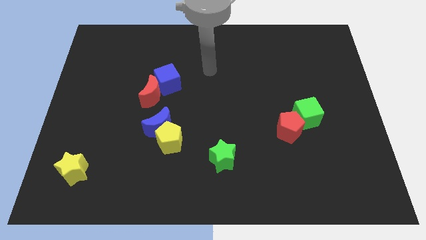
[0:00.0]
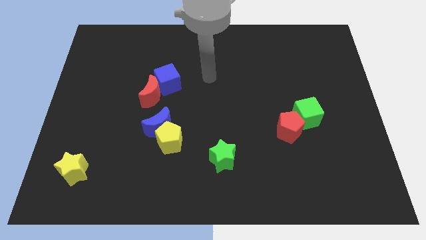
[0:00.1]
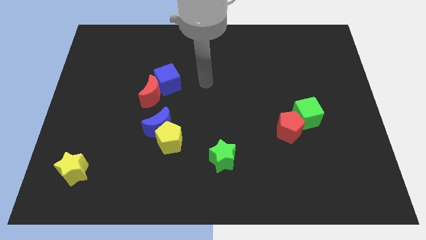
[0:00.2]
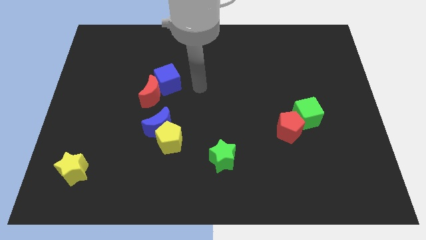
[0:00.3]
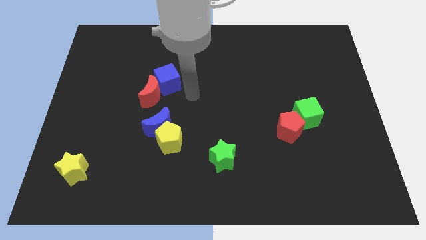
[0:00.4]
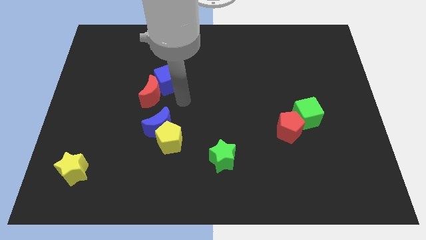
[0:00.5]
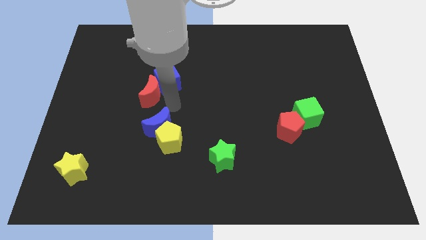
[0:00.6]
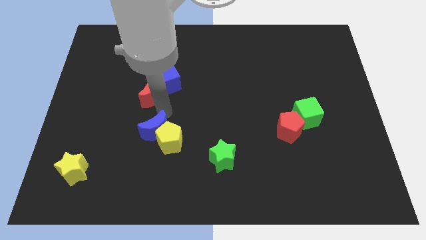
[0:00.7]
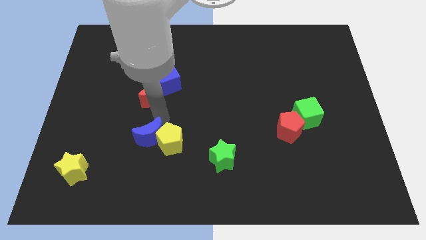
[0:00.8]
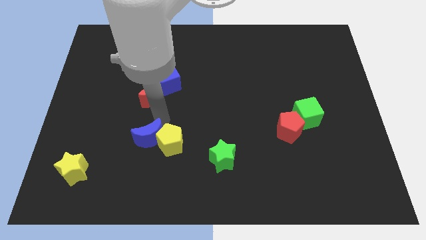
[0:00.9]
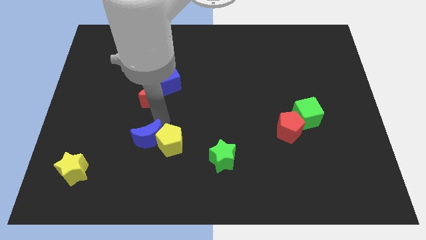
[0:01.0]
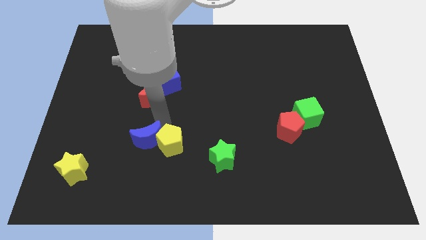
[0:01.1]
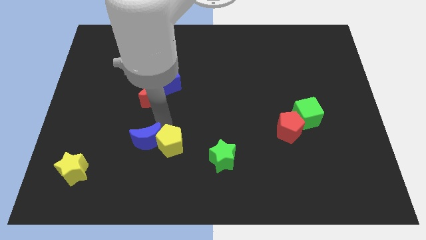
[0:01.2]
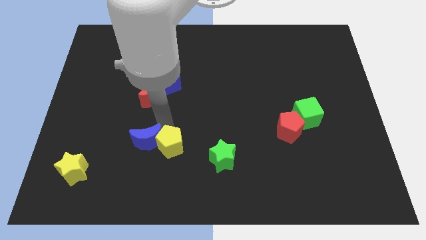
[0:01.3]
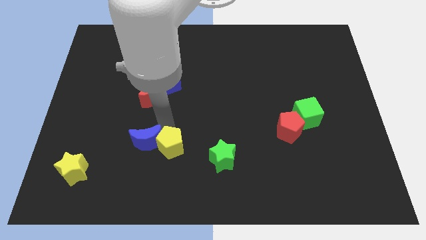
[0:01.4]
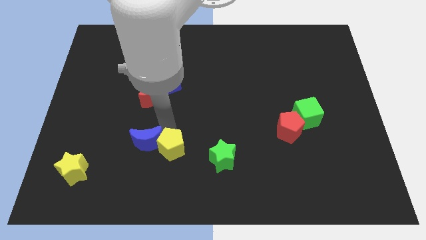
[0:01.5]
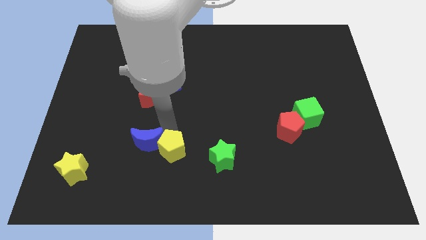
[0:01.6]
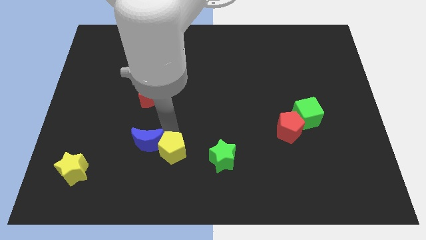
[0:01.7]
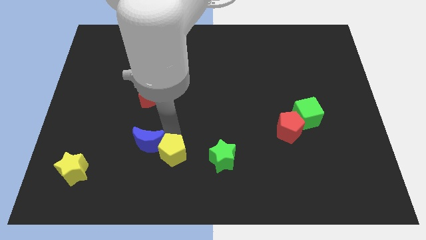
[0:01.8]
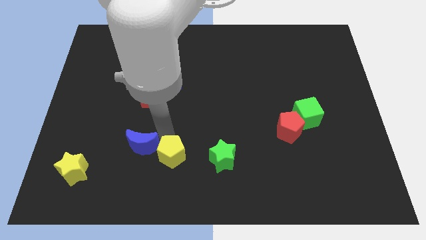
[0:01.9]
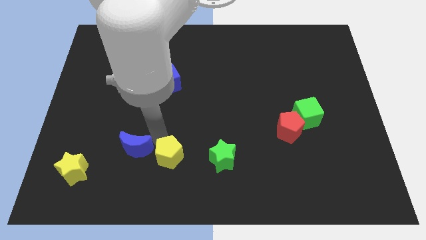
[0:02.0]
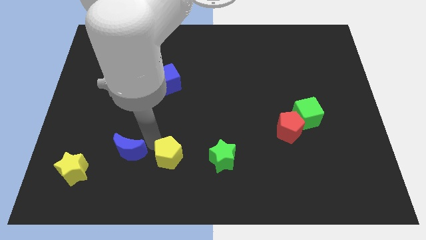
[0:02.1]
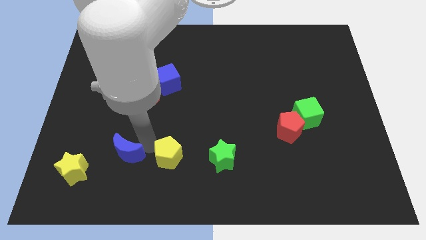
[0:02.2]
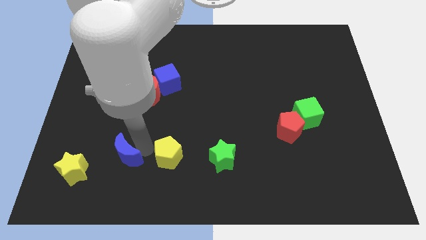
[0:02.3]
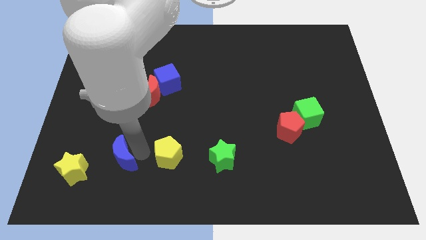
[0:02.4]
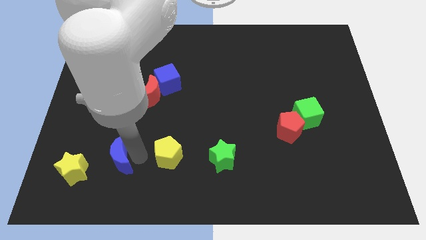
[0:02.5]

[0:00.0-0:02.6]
pull the yellow pentagon apart from the blue moon

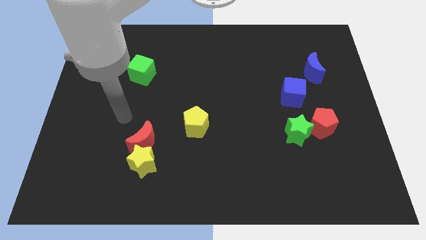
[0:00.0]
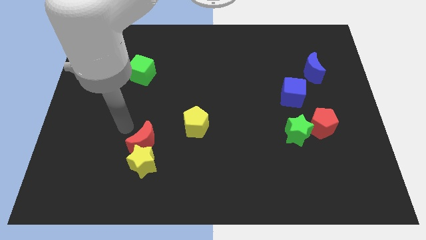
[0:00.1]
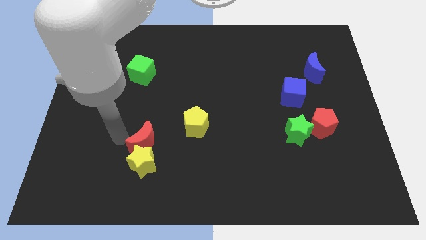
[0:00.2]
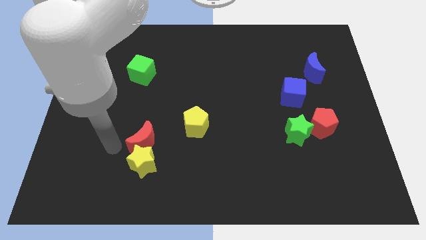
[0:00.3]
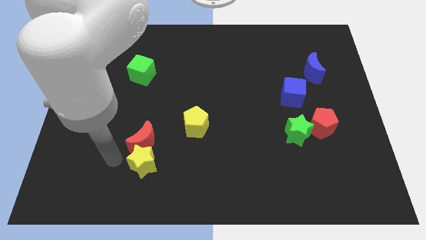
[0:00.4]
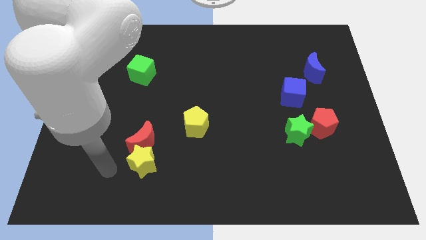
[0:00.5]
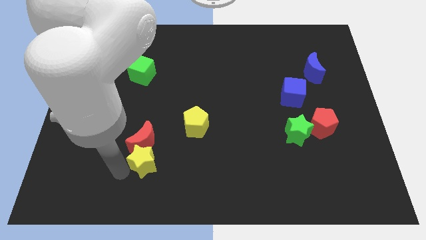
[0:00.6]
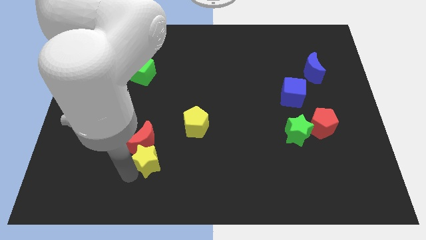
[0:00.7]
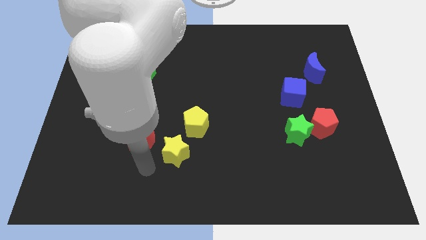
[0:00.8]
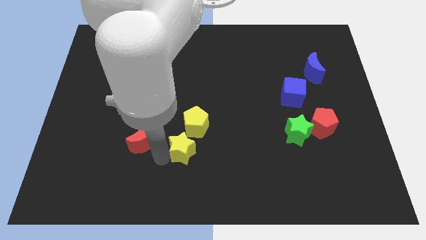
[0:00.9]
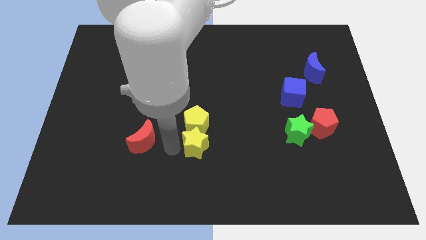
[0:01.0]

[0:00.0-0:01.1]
separate the red moon from the yellow star

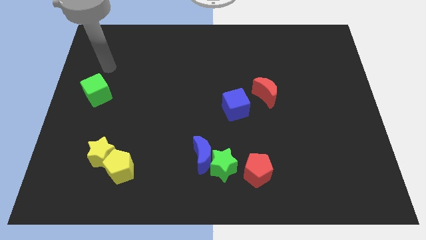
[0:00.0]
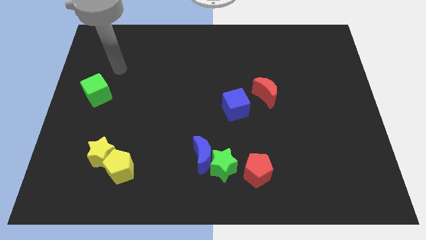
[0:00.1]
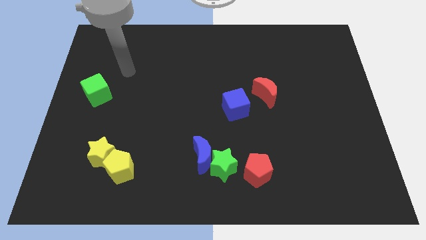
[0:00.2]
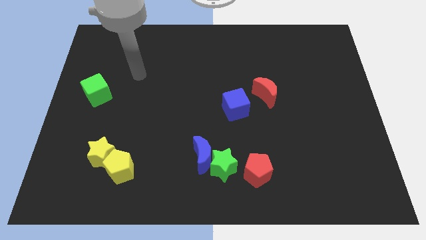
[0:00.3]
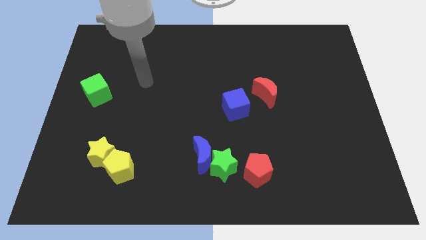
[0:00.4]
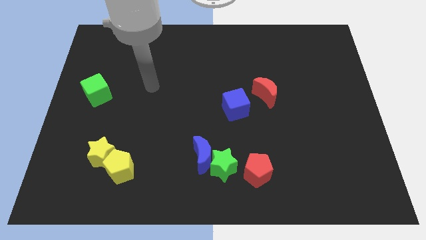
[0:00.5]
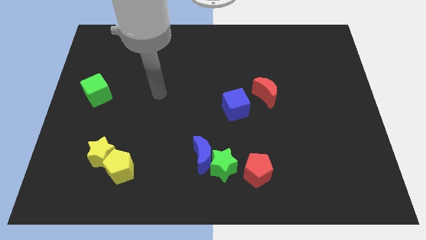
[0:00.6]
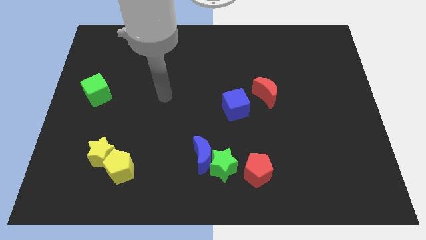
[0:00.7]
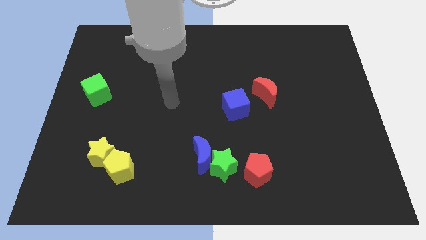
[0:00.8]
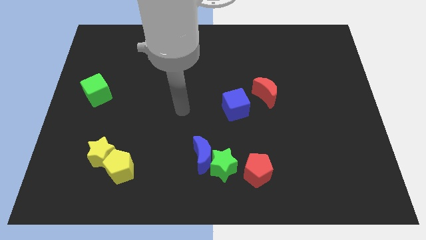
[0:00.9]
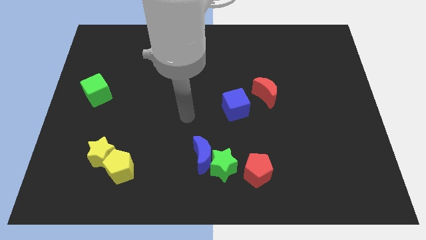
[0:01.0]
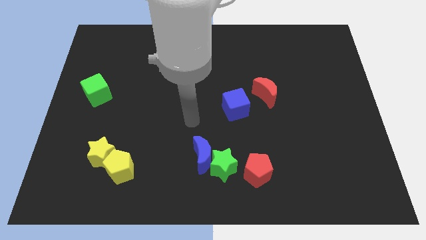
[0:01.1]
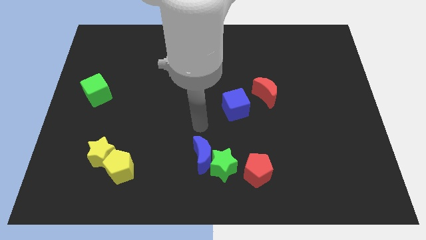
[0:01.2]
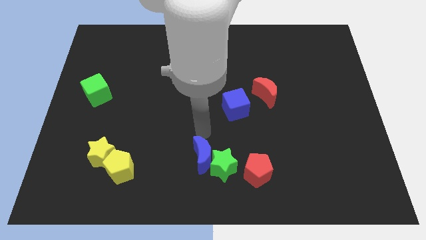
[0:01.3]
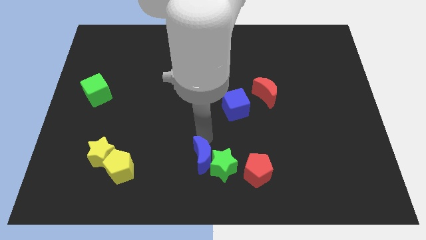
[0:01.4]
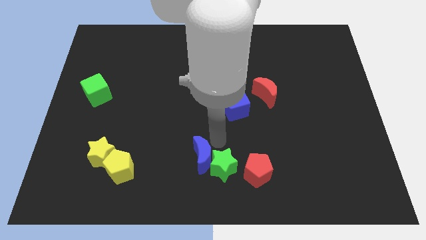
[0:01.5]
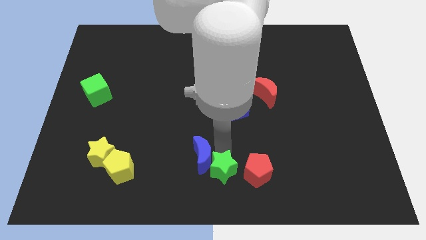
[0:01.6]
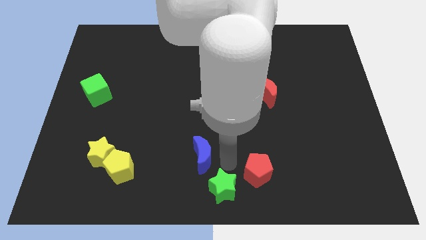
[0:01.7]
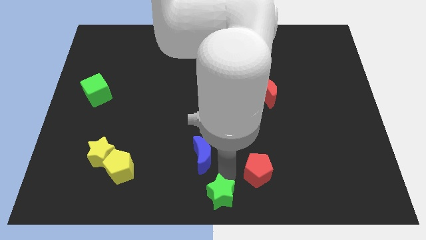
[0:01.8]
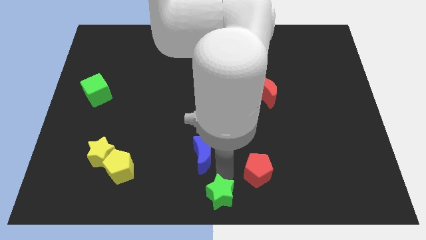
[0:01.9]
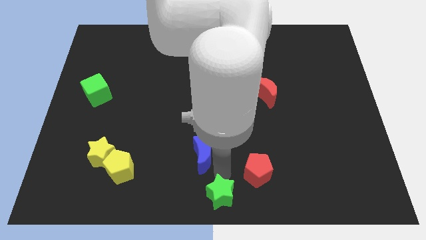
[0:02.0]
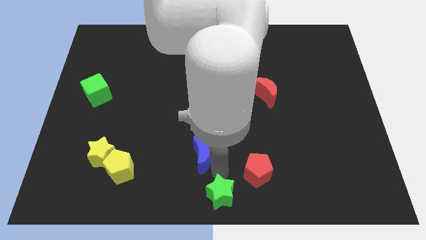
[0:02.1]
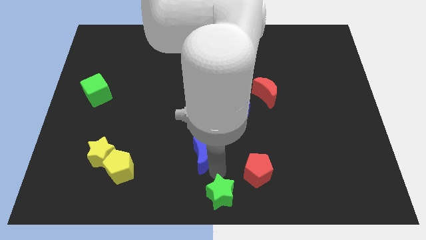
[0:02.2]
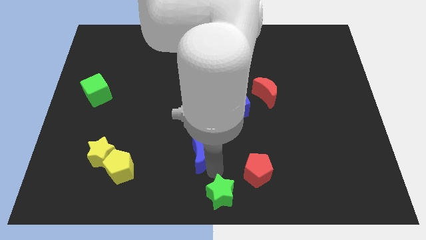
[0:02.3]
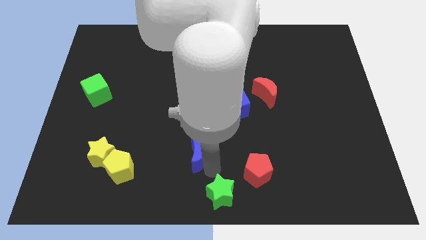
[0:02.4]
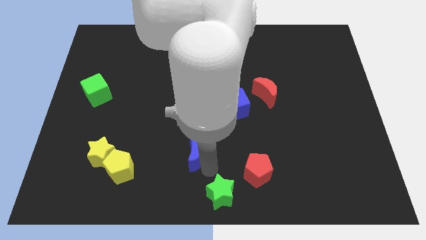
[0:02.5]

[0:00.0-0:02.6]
separate the blue moon from the green star

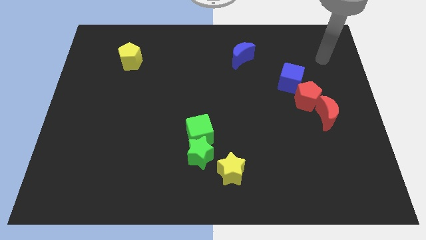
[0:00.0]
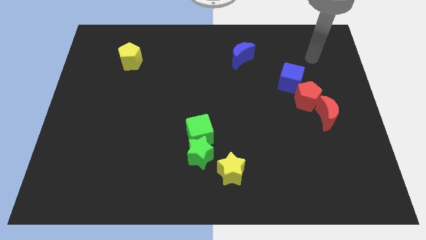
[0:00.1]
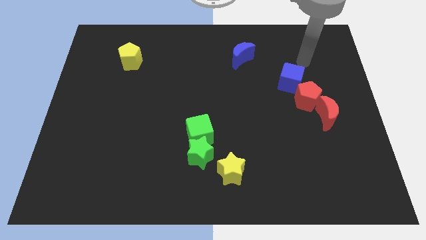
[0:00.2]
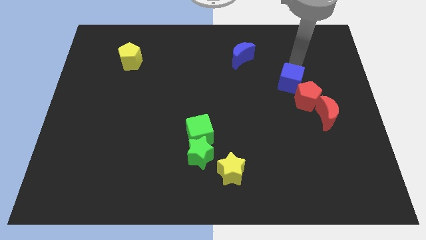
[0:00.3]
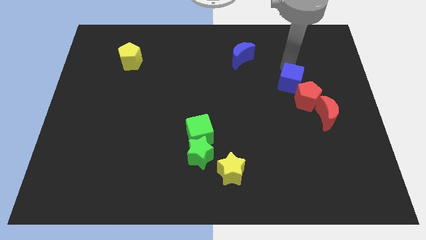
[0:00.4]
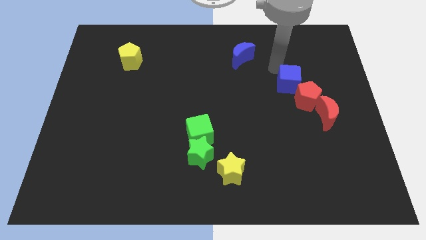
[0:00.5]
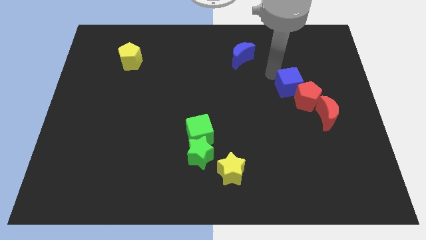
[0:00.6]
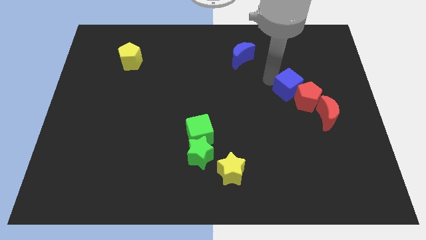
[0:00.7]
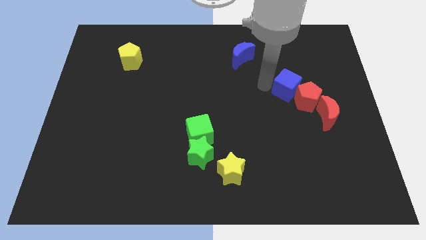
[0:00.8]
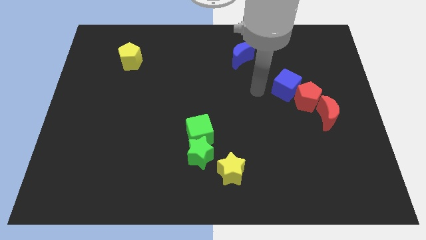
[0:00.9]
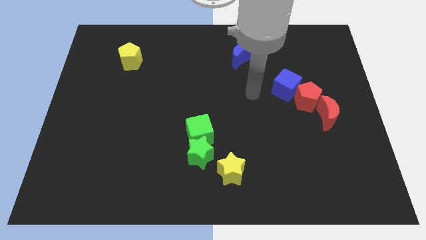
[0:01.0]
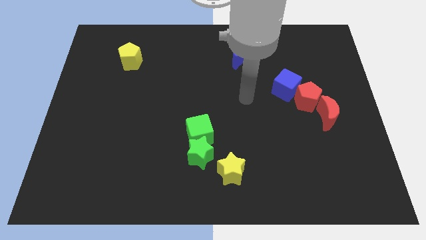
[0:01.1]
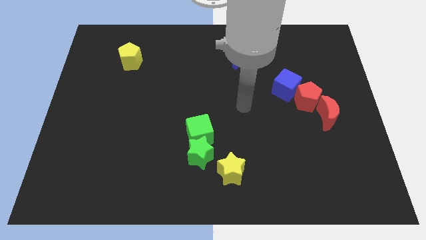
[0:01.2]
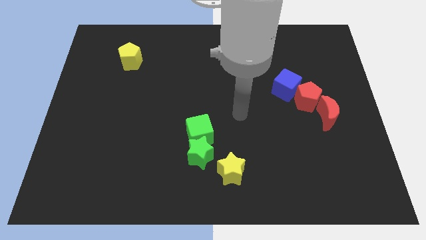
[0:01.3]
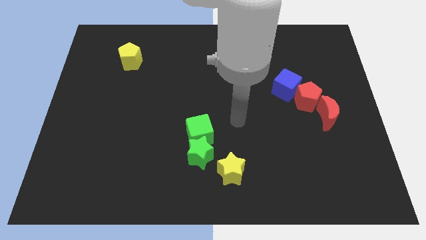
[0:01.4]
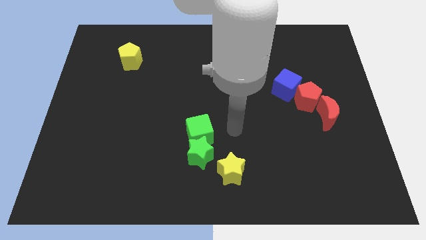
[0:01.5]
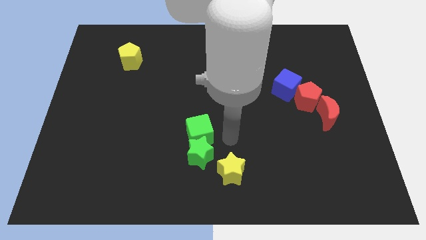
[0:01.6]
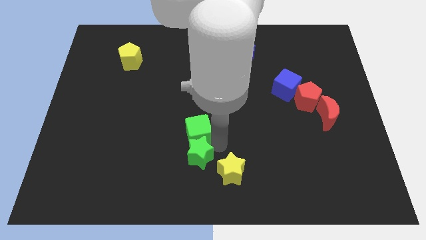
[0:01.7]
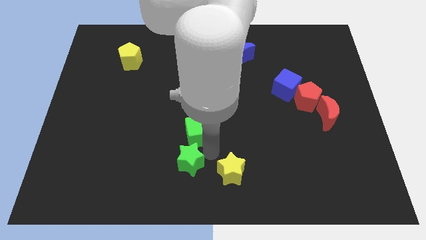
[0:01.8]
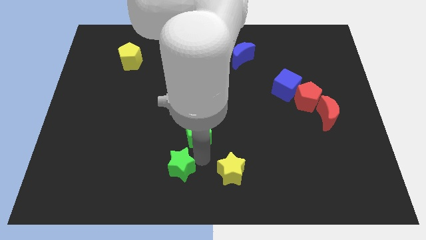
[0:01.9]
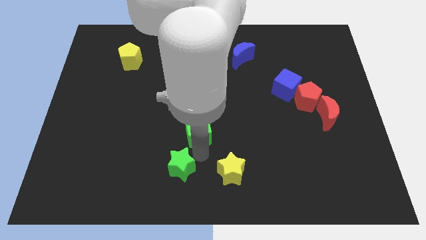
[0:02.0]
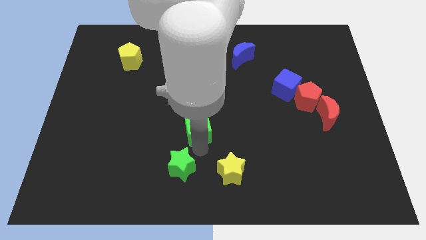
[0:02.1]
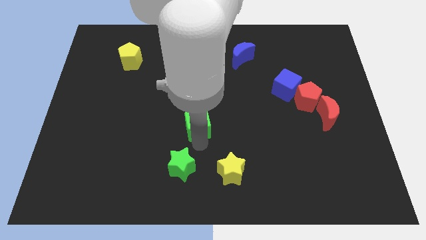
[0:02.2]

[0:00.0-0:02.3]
move the green cube away from the green star

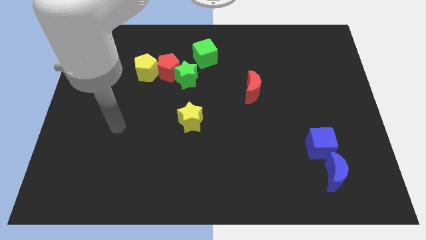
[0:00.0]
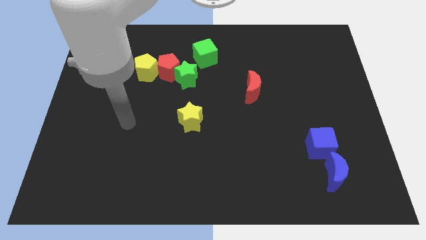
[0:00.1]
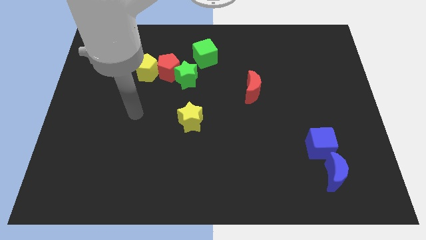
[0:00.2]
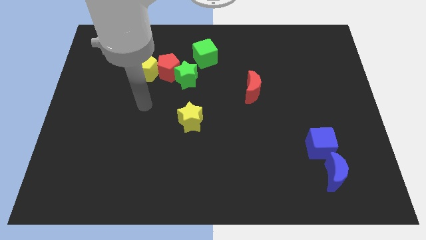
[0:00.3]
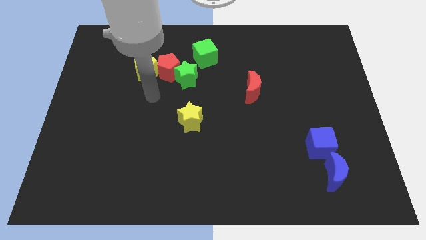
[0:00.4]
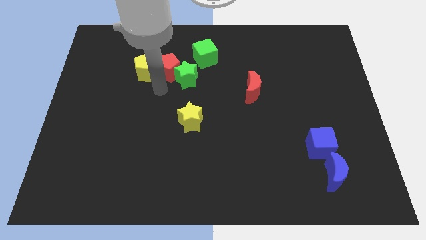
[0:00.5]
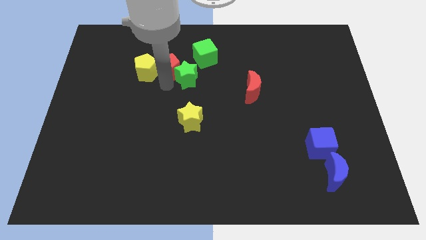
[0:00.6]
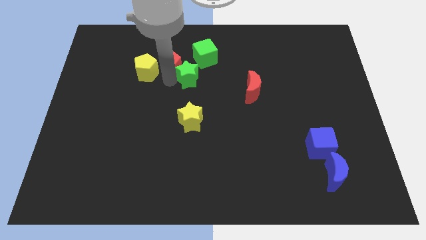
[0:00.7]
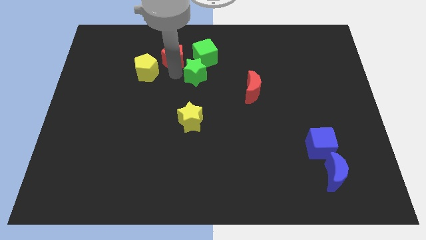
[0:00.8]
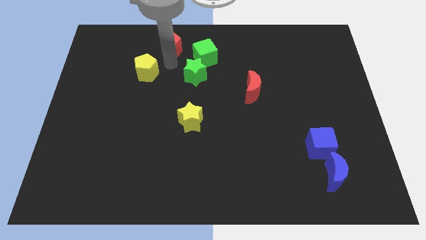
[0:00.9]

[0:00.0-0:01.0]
move the yellow pentagon away from the red pentagon
